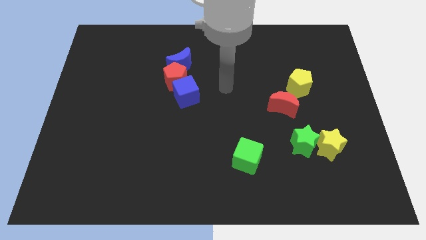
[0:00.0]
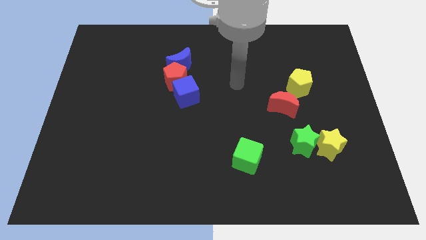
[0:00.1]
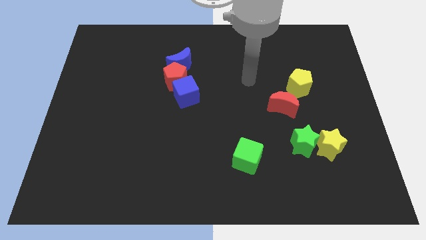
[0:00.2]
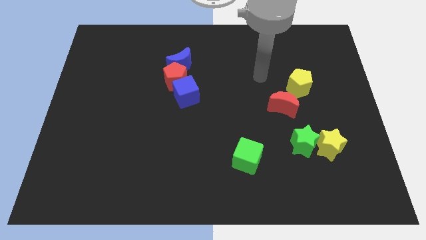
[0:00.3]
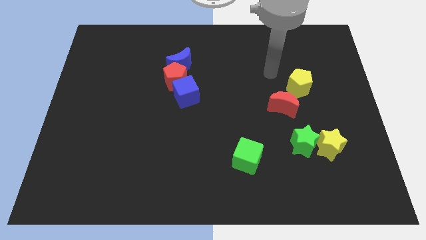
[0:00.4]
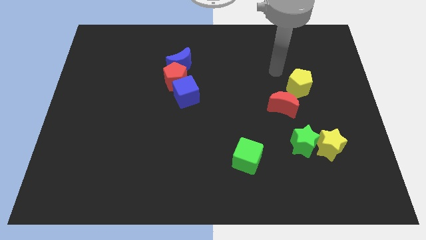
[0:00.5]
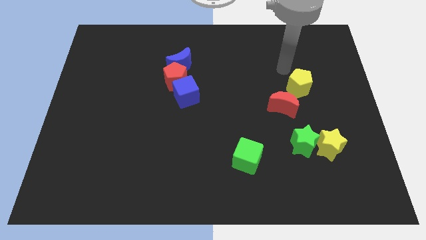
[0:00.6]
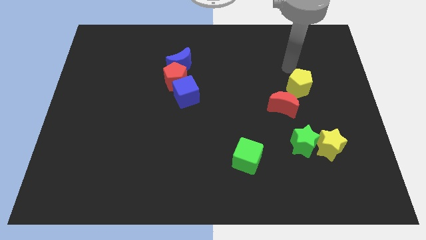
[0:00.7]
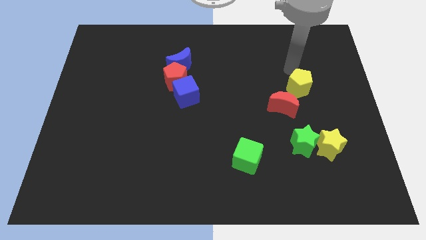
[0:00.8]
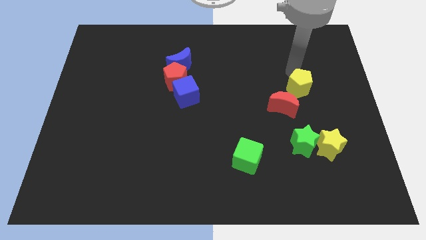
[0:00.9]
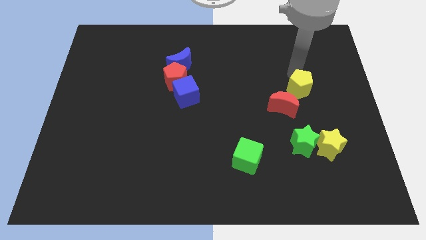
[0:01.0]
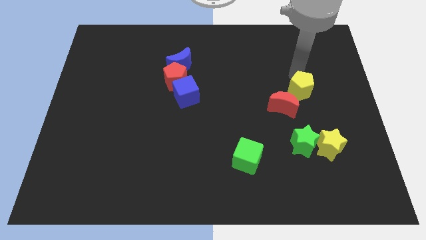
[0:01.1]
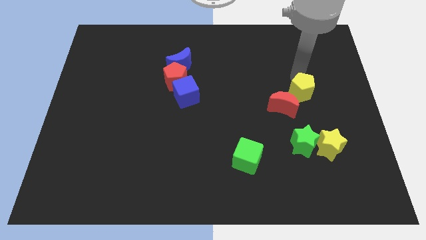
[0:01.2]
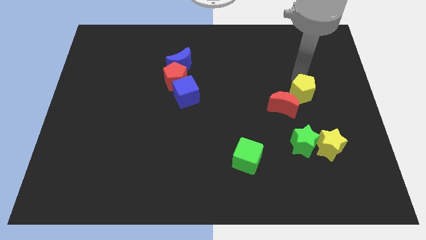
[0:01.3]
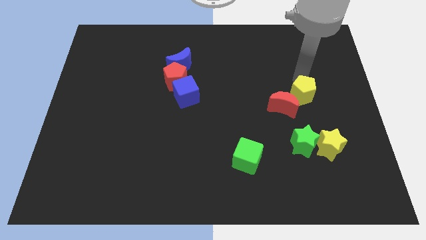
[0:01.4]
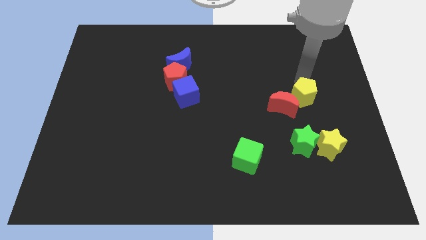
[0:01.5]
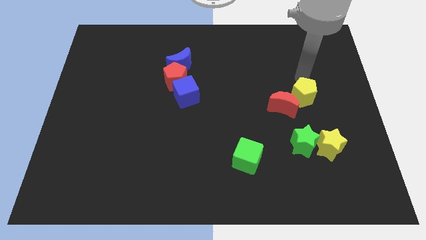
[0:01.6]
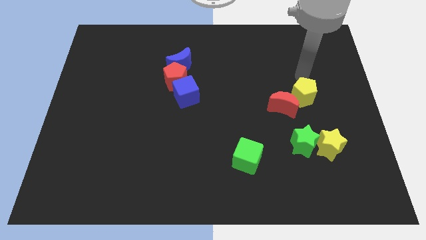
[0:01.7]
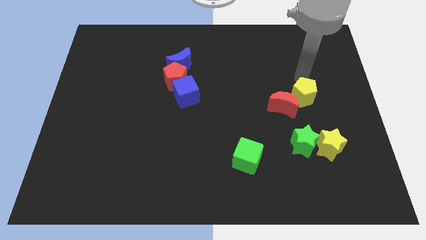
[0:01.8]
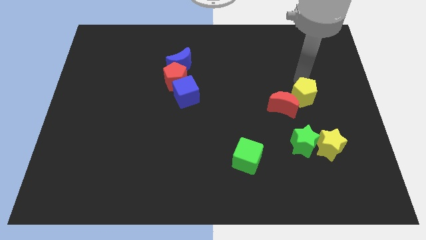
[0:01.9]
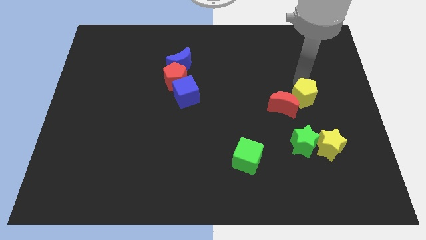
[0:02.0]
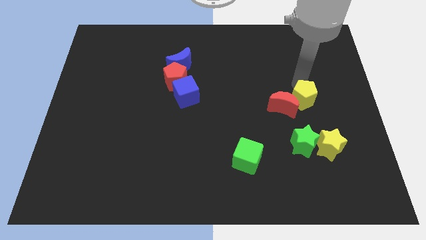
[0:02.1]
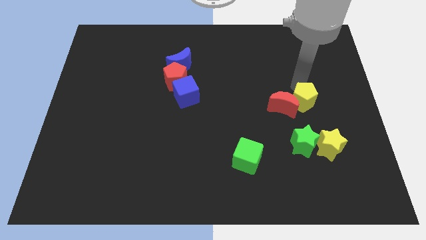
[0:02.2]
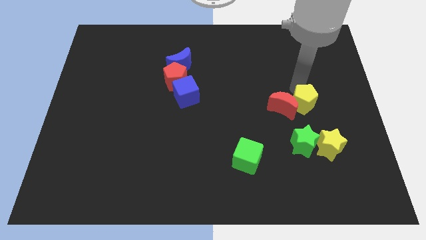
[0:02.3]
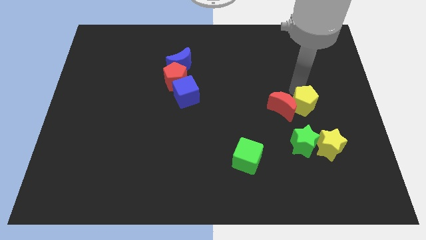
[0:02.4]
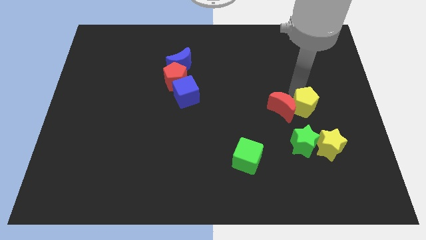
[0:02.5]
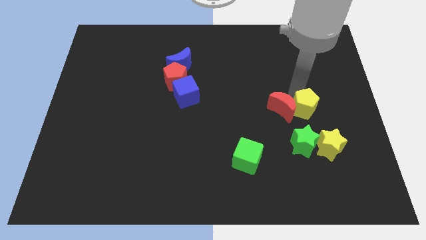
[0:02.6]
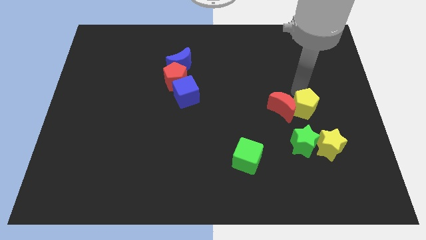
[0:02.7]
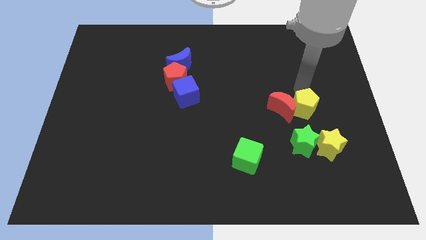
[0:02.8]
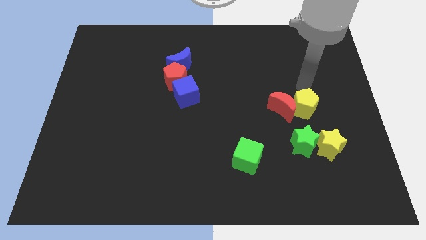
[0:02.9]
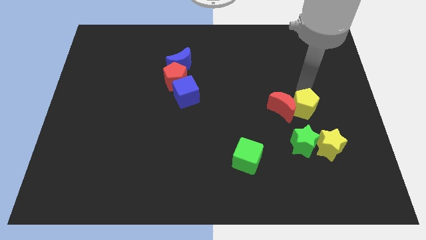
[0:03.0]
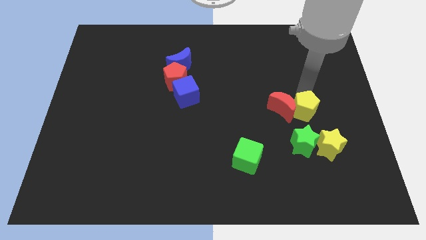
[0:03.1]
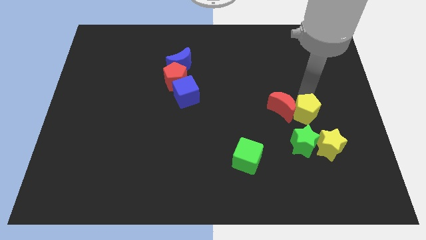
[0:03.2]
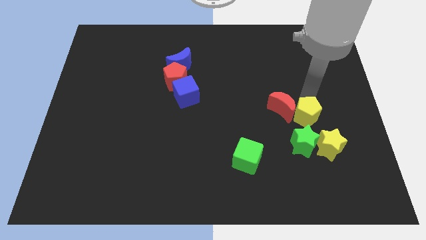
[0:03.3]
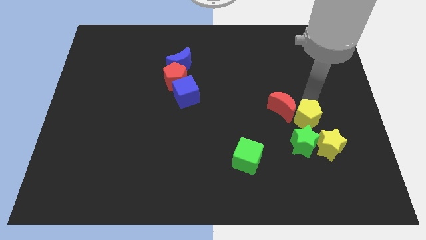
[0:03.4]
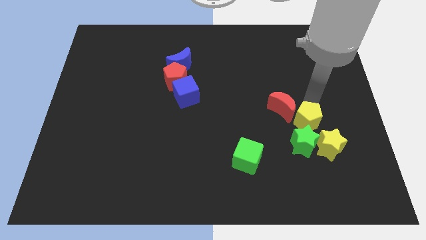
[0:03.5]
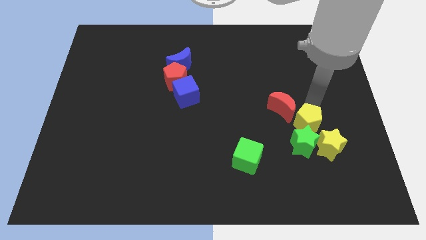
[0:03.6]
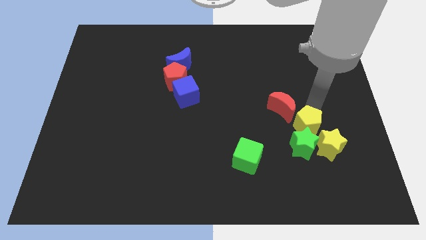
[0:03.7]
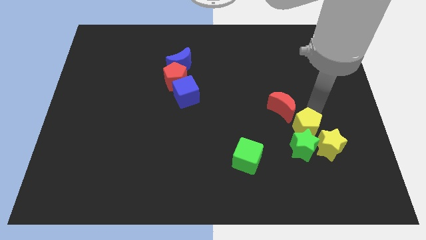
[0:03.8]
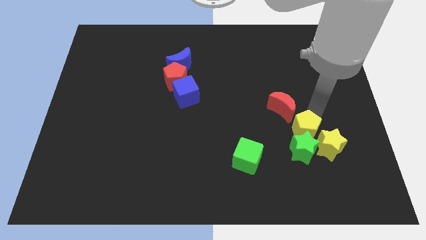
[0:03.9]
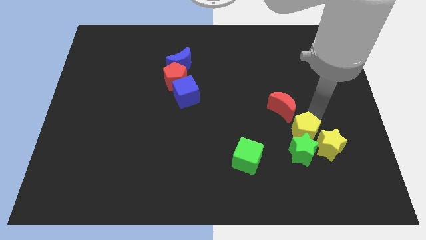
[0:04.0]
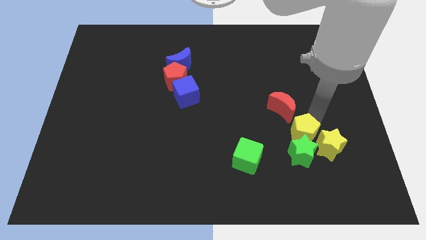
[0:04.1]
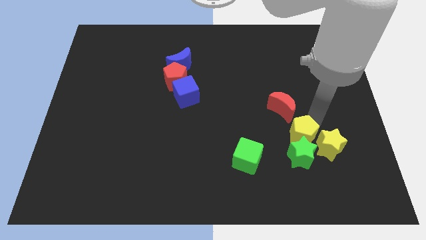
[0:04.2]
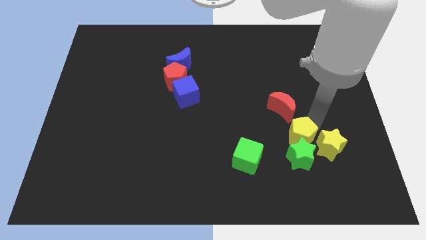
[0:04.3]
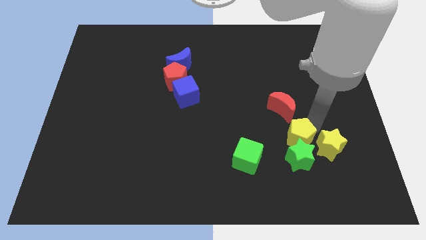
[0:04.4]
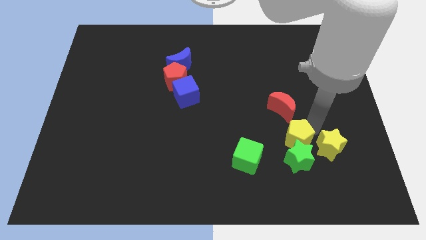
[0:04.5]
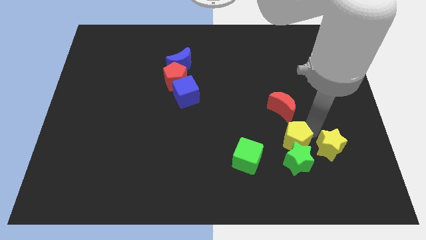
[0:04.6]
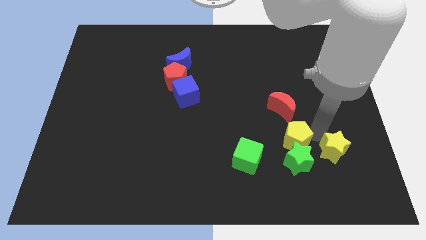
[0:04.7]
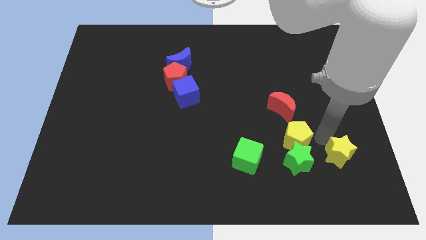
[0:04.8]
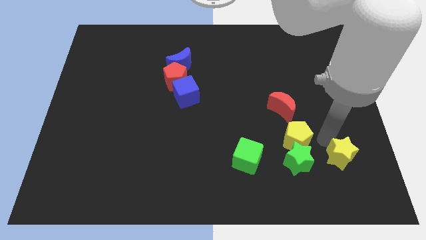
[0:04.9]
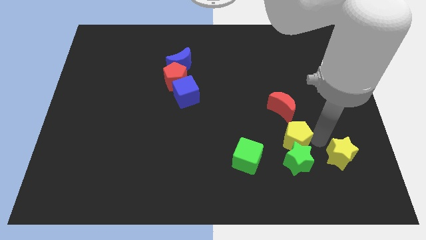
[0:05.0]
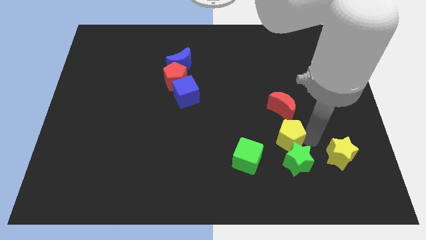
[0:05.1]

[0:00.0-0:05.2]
move the yellow pentagon diagonally up and to the right of the green cube

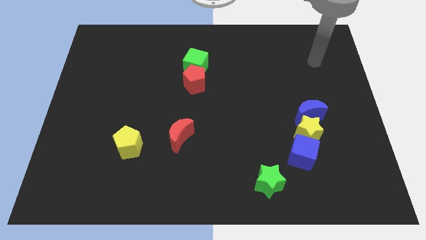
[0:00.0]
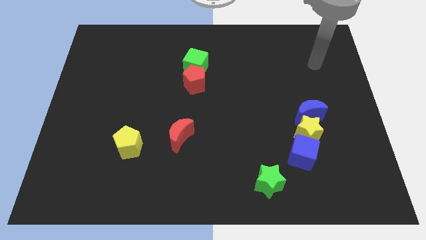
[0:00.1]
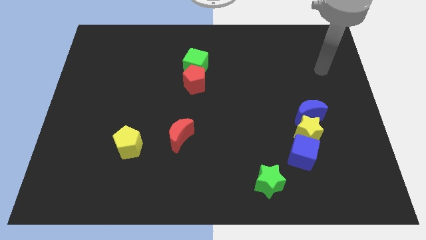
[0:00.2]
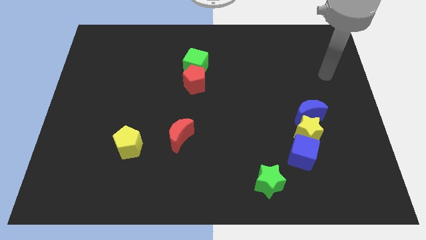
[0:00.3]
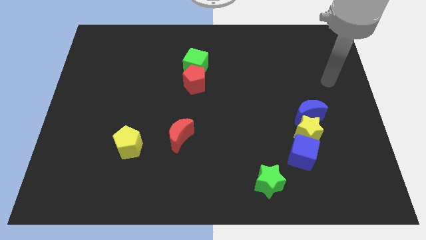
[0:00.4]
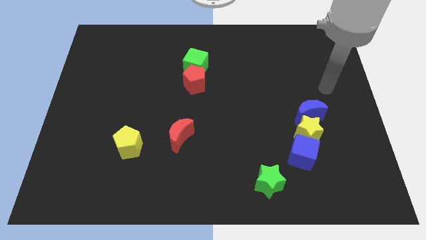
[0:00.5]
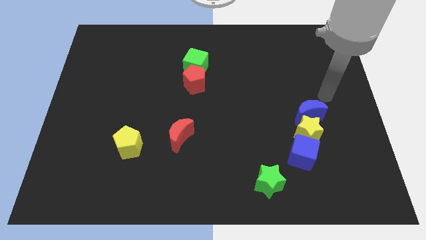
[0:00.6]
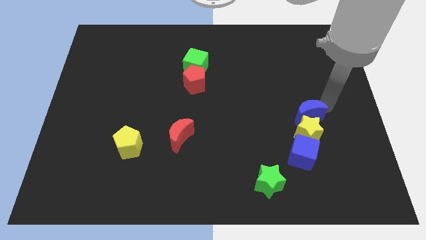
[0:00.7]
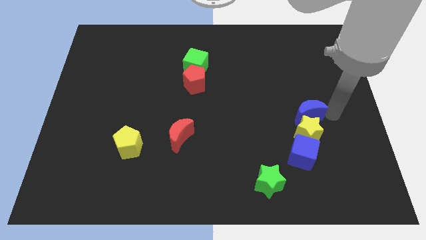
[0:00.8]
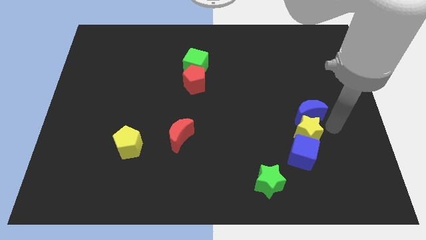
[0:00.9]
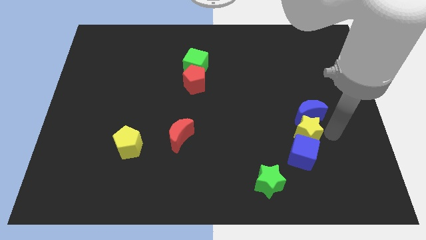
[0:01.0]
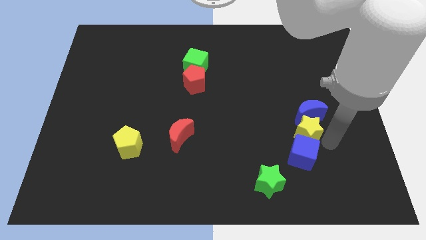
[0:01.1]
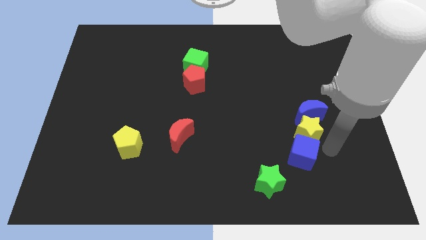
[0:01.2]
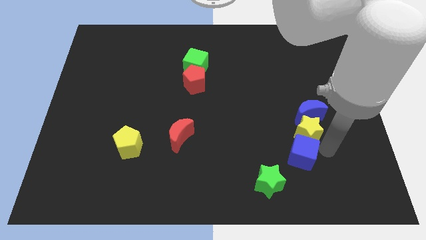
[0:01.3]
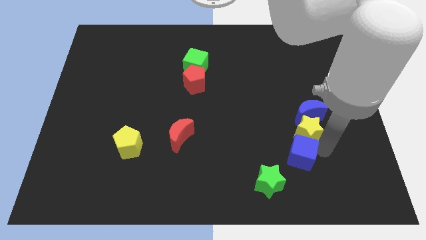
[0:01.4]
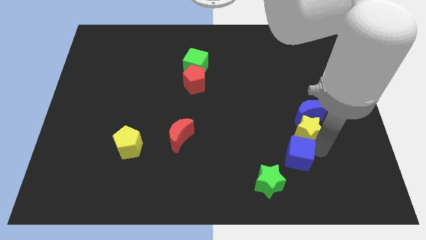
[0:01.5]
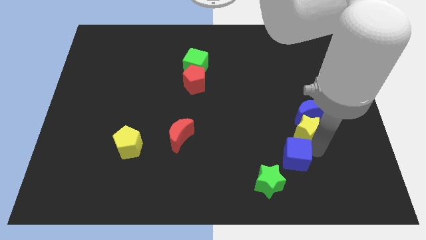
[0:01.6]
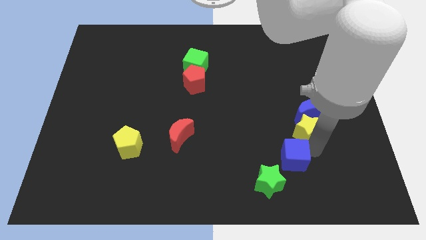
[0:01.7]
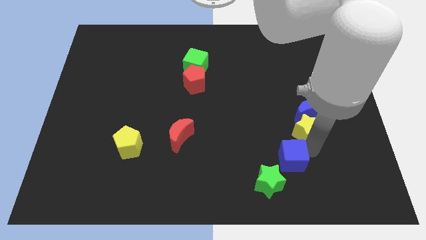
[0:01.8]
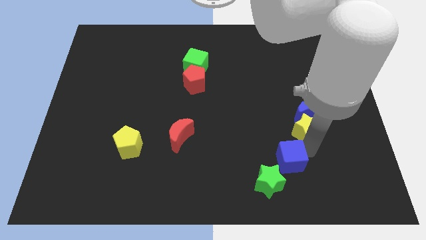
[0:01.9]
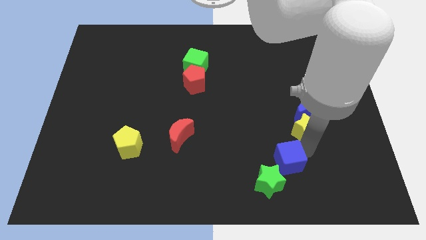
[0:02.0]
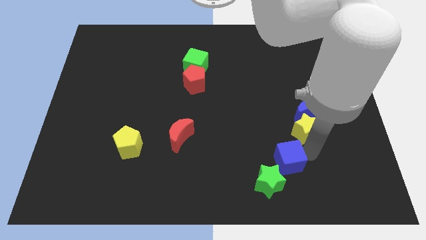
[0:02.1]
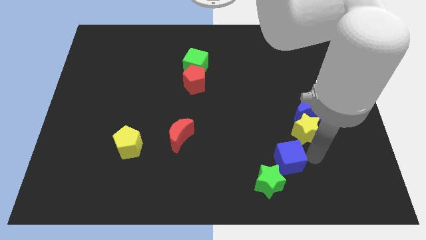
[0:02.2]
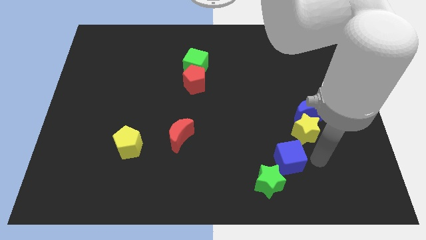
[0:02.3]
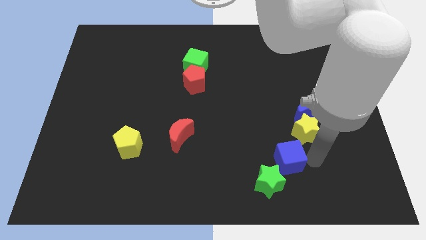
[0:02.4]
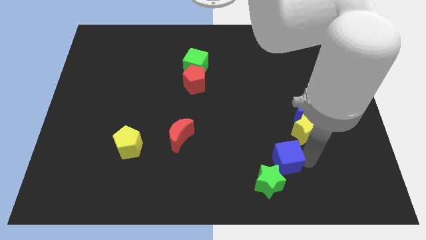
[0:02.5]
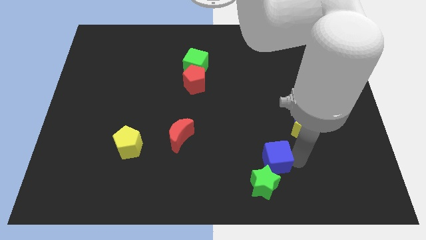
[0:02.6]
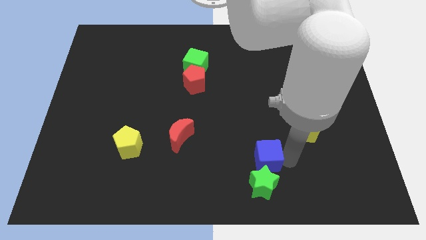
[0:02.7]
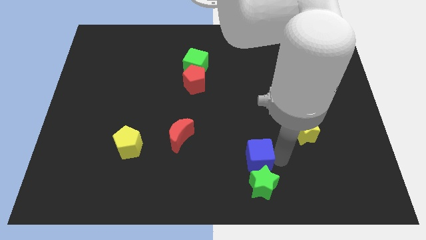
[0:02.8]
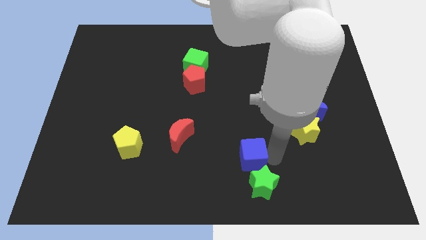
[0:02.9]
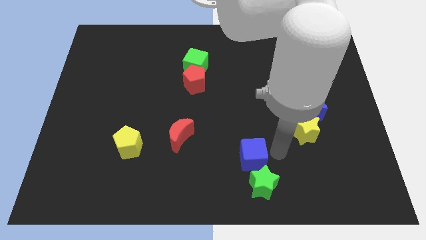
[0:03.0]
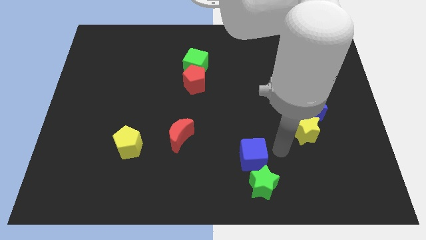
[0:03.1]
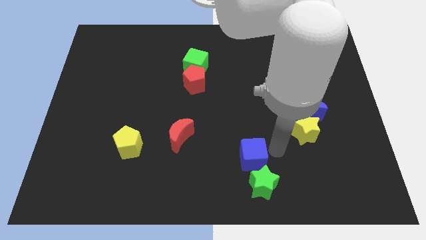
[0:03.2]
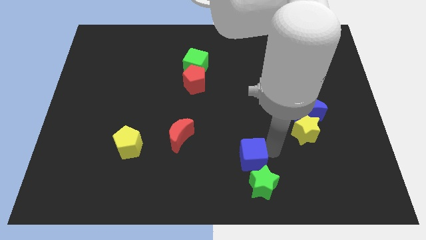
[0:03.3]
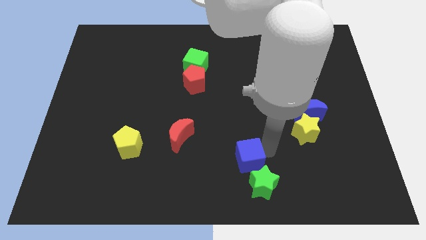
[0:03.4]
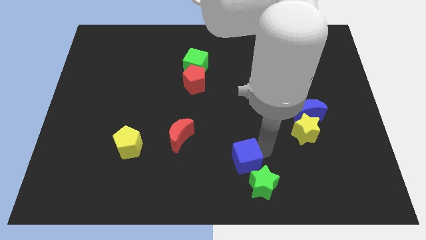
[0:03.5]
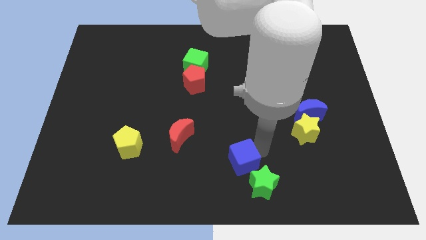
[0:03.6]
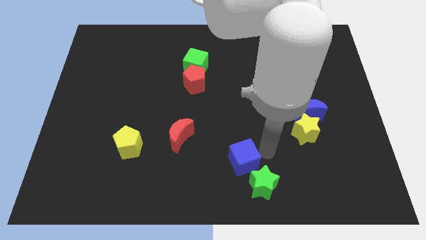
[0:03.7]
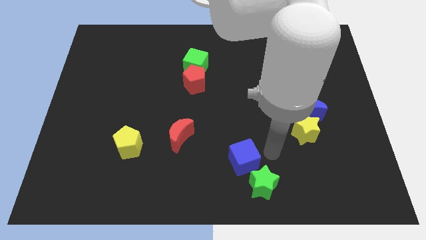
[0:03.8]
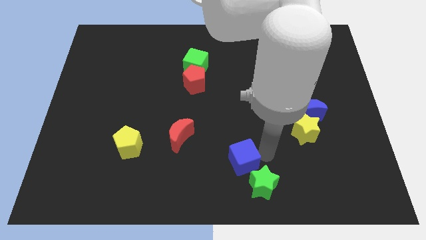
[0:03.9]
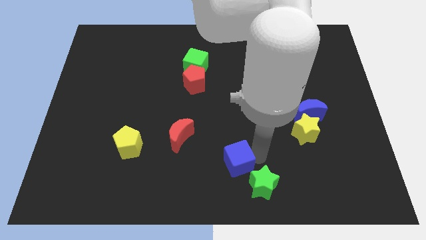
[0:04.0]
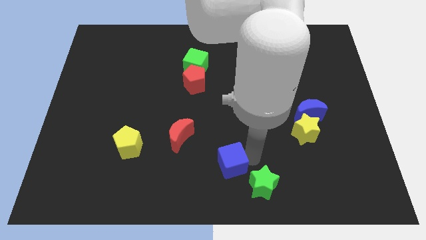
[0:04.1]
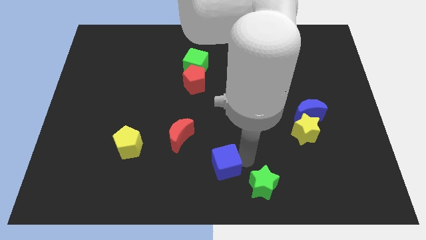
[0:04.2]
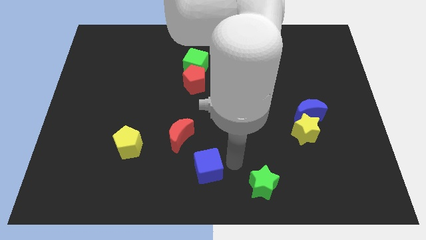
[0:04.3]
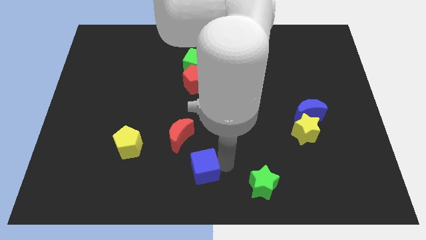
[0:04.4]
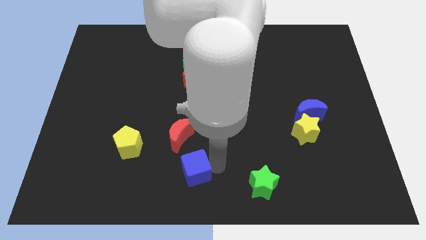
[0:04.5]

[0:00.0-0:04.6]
push the blue cube to the bottom side of the red moon
